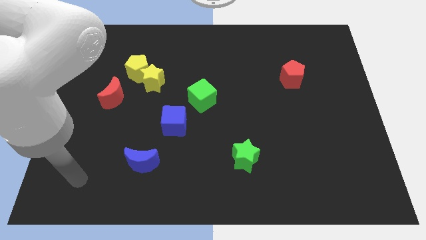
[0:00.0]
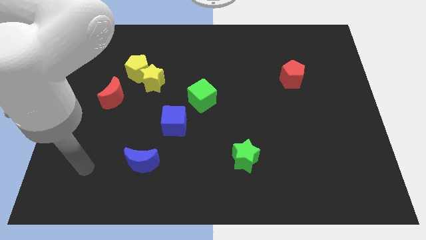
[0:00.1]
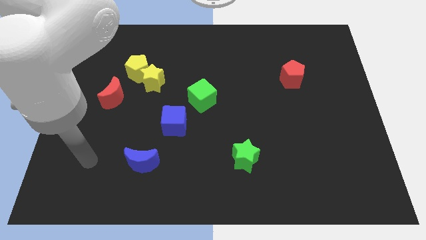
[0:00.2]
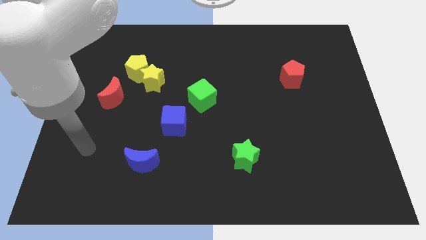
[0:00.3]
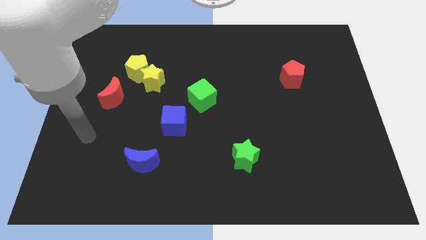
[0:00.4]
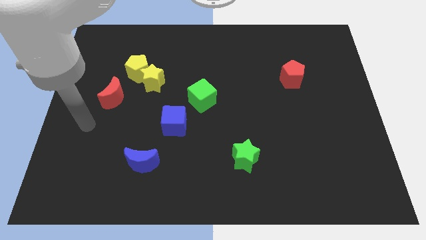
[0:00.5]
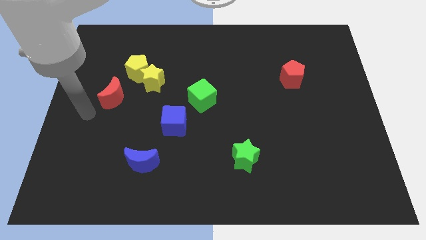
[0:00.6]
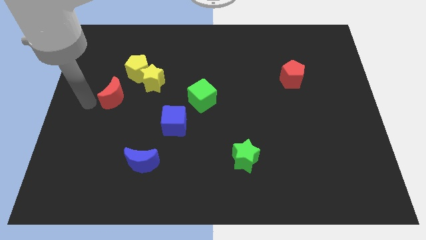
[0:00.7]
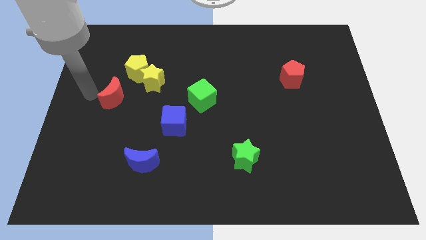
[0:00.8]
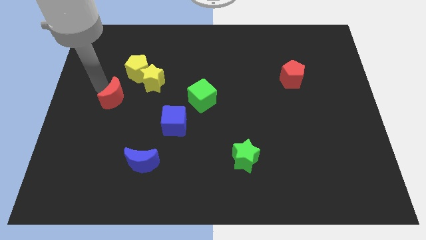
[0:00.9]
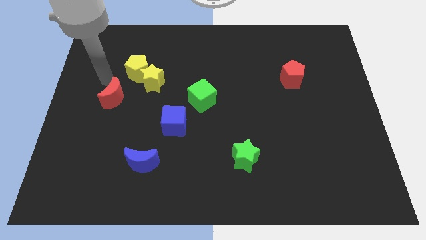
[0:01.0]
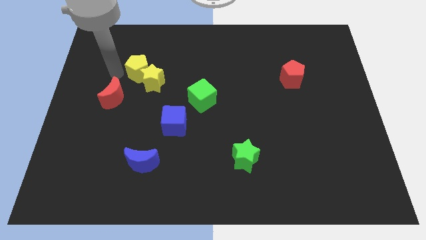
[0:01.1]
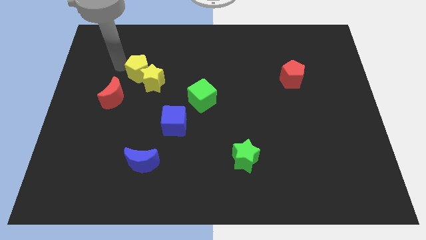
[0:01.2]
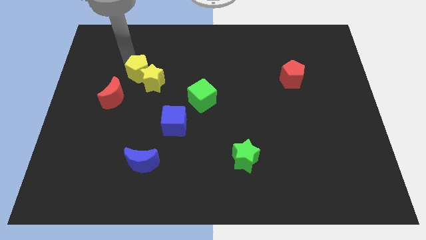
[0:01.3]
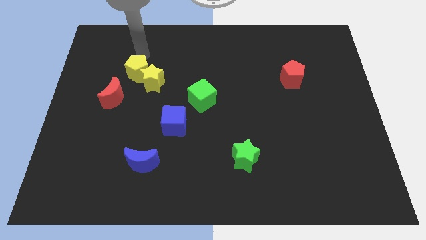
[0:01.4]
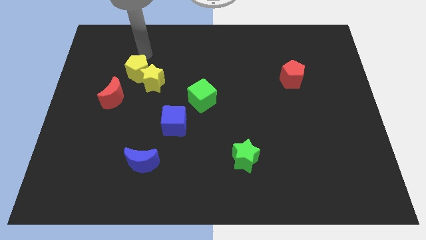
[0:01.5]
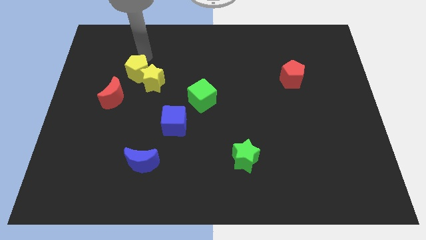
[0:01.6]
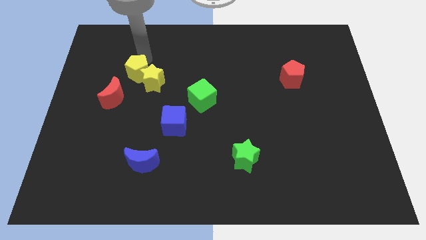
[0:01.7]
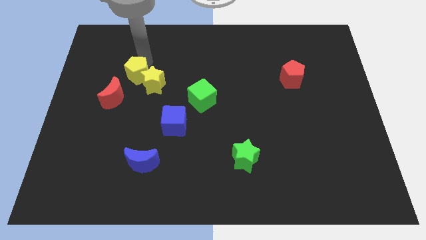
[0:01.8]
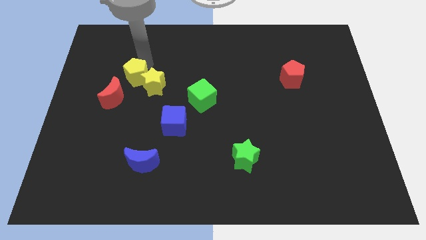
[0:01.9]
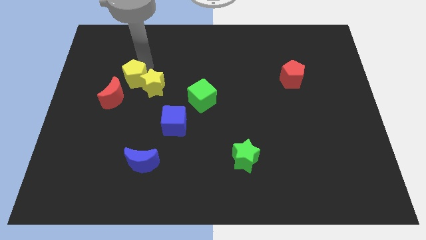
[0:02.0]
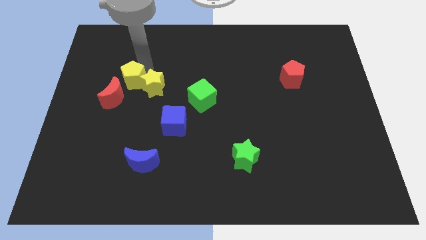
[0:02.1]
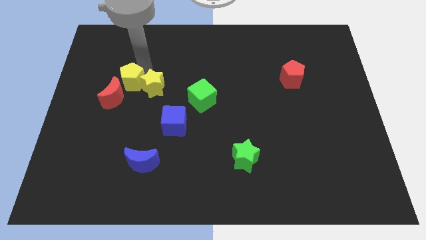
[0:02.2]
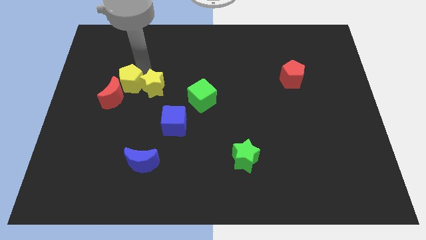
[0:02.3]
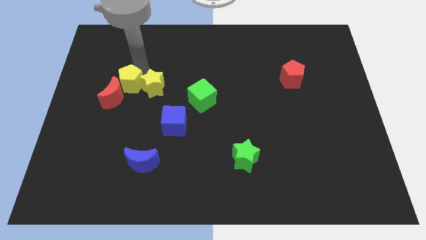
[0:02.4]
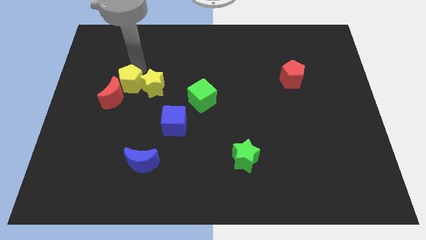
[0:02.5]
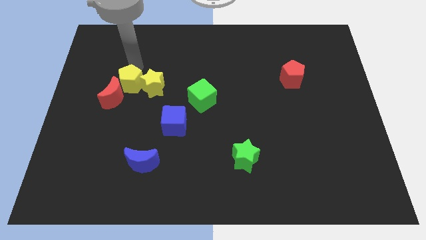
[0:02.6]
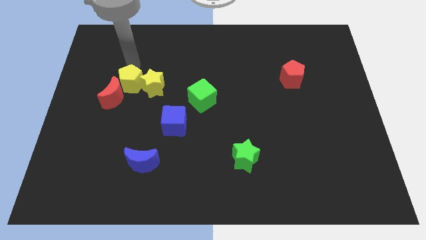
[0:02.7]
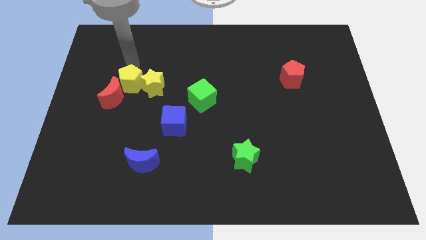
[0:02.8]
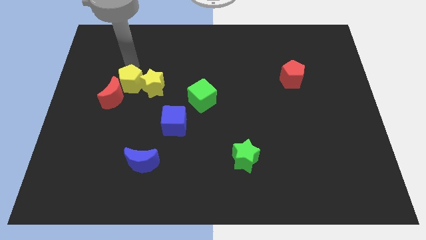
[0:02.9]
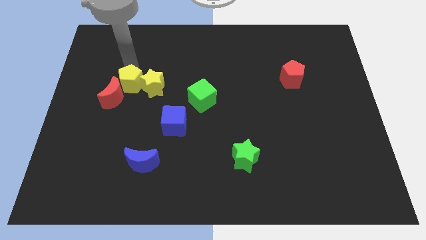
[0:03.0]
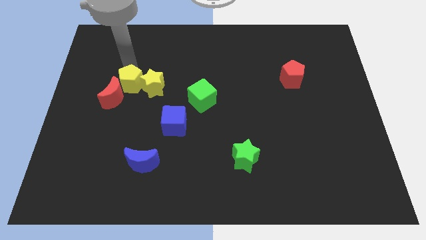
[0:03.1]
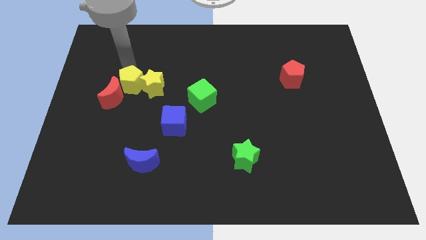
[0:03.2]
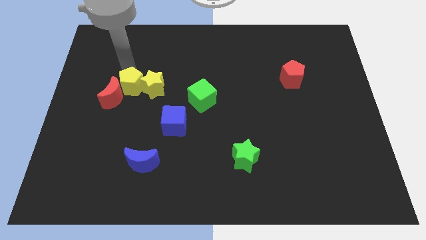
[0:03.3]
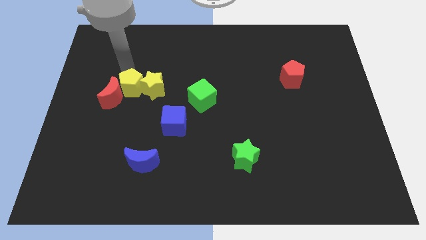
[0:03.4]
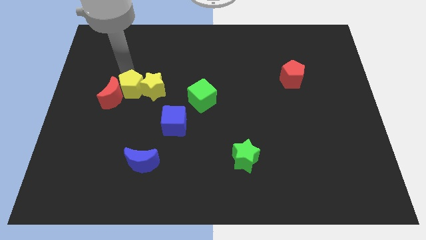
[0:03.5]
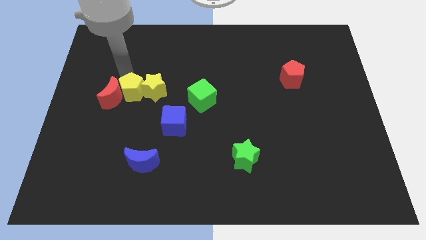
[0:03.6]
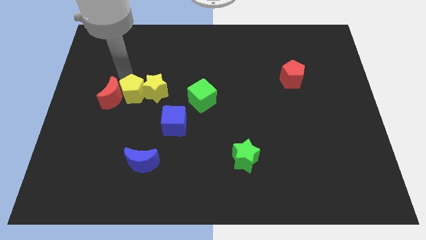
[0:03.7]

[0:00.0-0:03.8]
move the yellow pentagon down a little

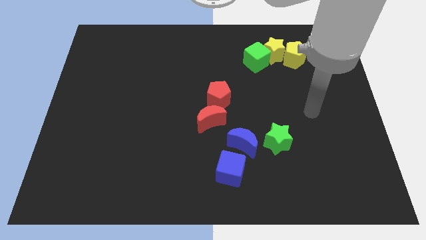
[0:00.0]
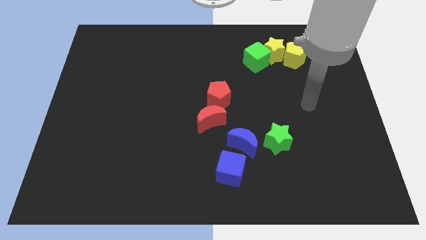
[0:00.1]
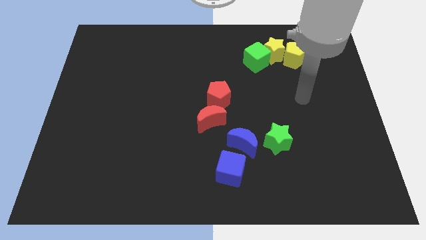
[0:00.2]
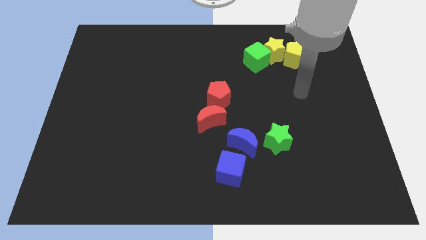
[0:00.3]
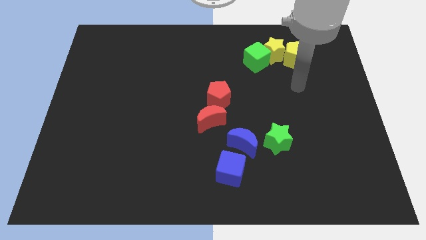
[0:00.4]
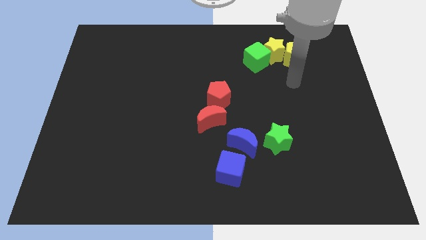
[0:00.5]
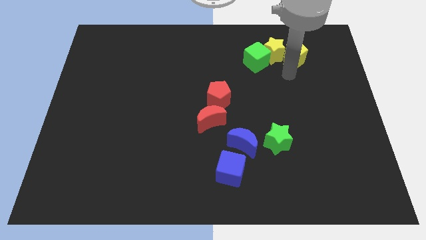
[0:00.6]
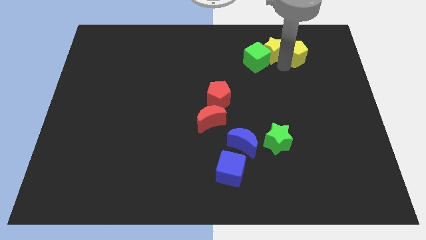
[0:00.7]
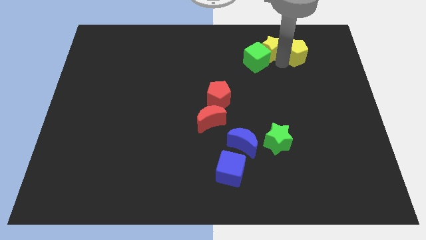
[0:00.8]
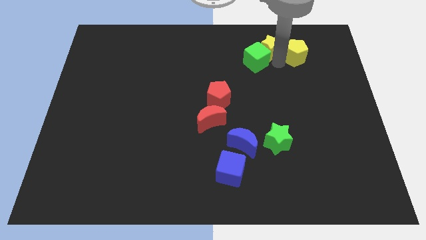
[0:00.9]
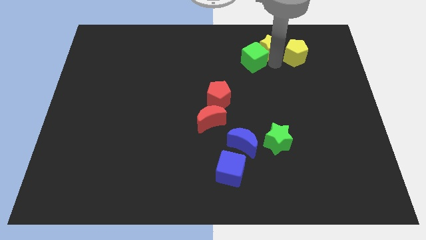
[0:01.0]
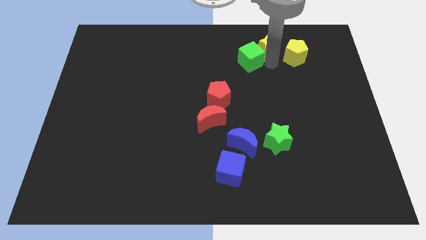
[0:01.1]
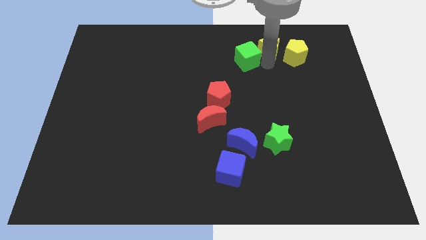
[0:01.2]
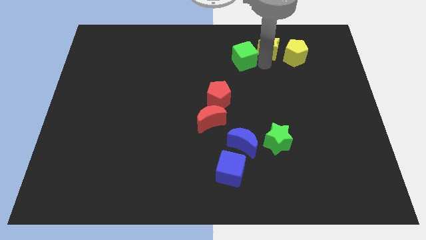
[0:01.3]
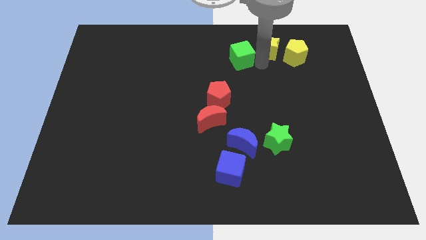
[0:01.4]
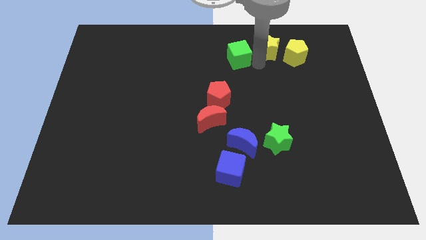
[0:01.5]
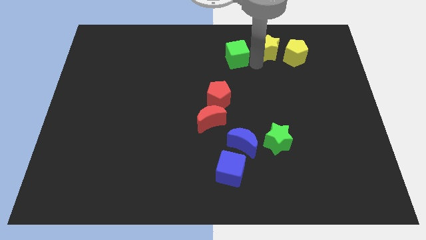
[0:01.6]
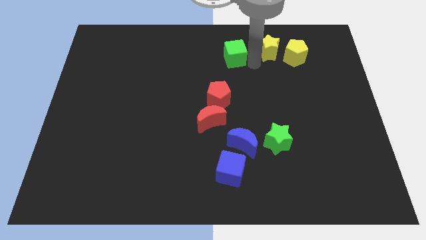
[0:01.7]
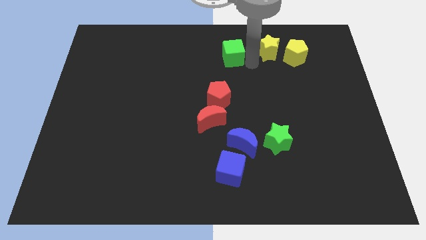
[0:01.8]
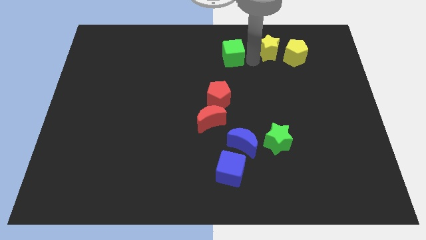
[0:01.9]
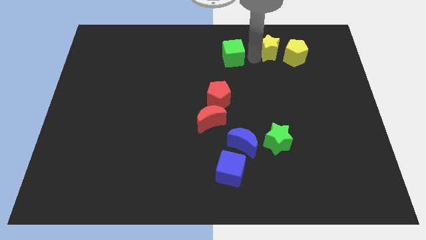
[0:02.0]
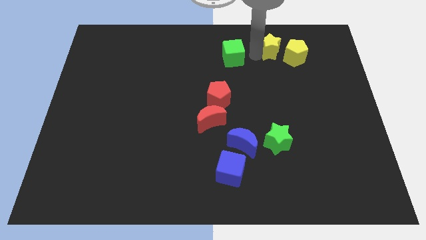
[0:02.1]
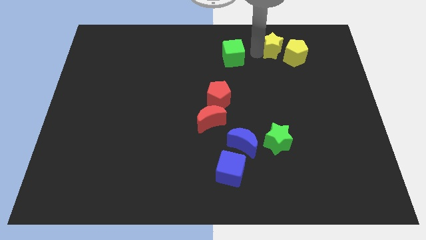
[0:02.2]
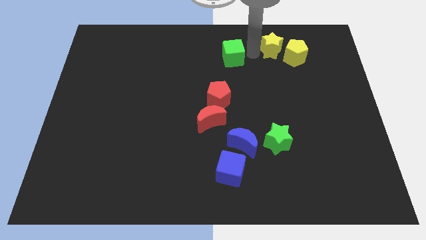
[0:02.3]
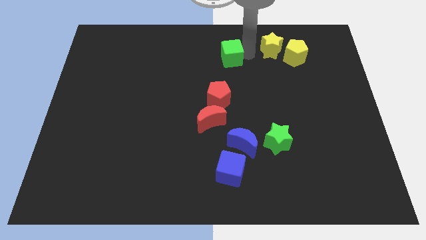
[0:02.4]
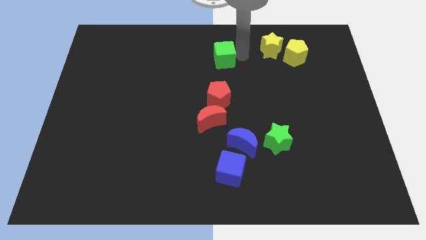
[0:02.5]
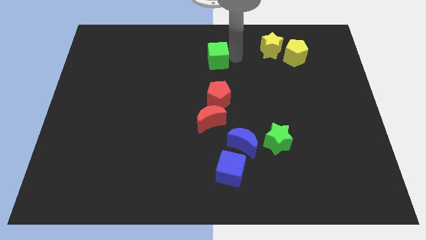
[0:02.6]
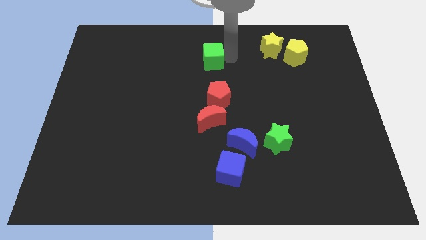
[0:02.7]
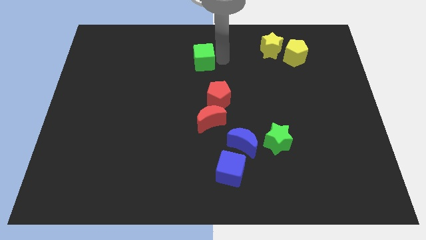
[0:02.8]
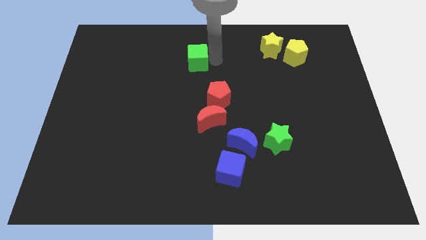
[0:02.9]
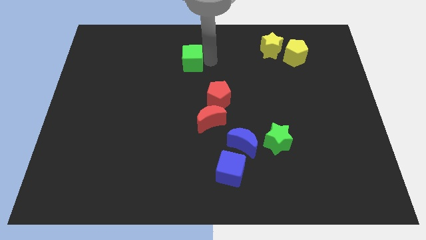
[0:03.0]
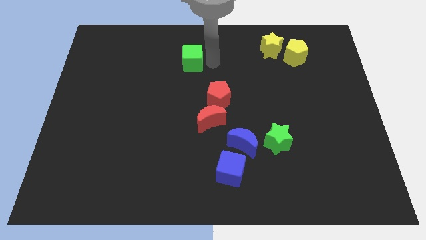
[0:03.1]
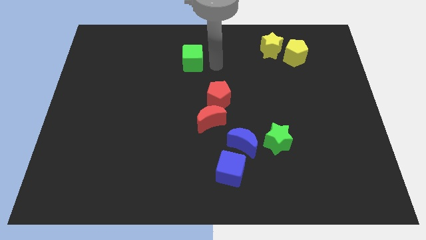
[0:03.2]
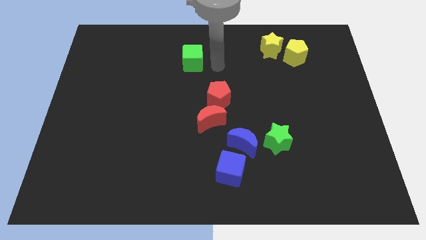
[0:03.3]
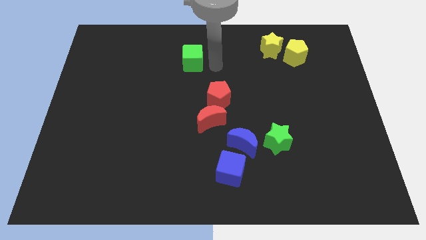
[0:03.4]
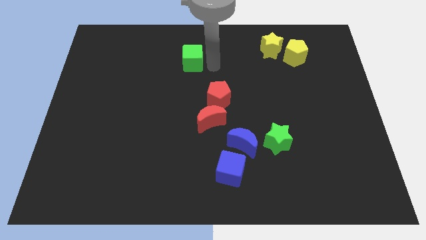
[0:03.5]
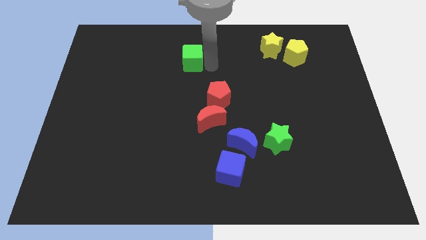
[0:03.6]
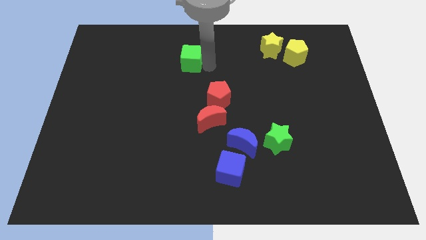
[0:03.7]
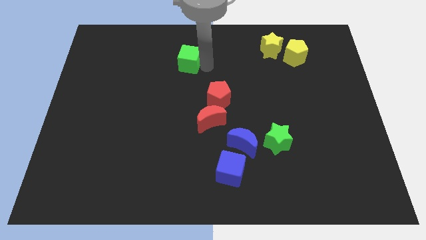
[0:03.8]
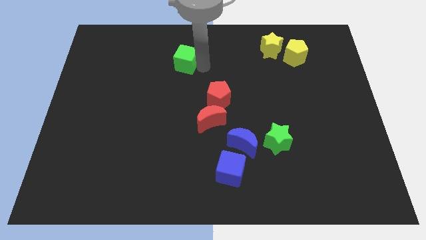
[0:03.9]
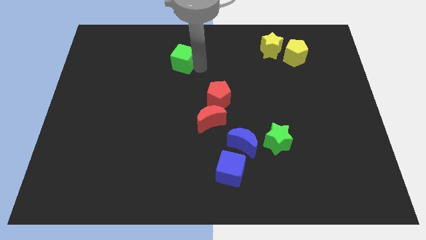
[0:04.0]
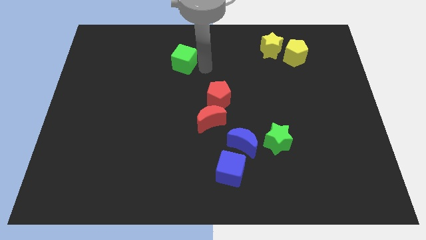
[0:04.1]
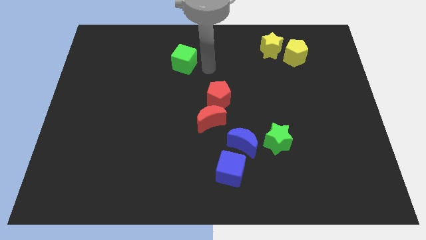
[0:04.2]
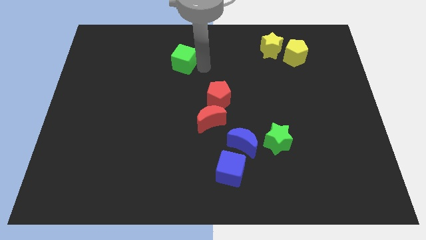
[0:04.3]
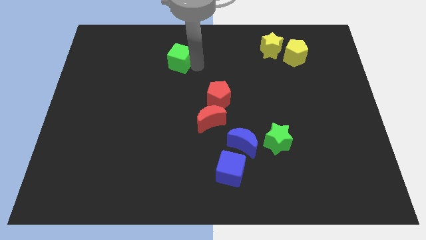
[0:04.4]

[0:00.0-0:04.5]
move the green cube to the left
